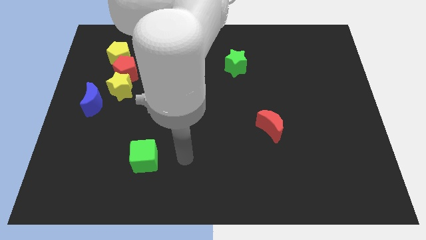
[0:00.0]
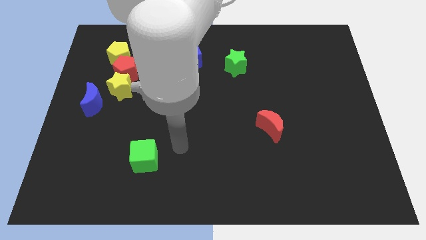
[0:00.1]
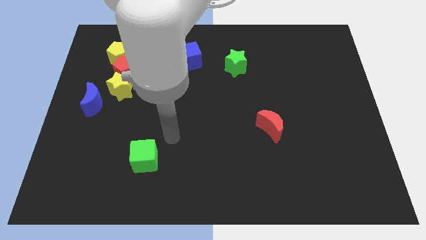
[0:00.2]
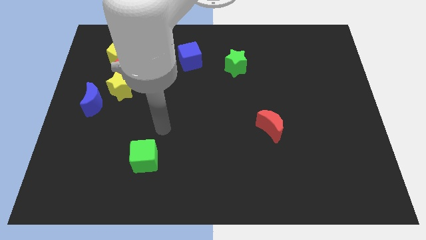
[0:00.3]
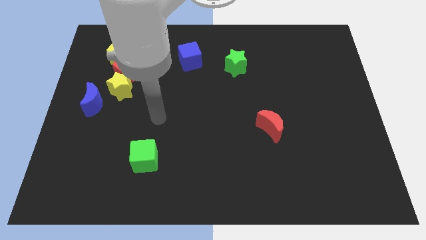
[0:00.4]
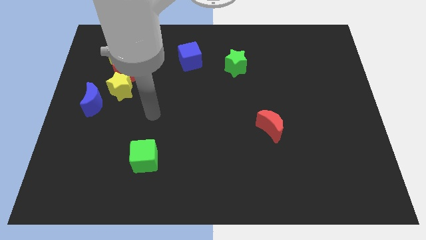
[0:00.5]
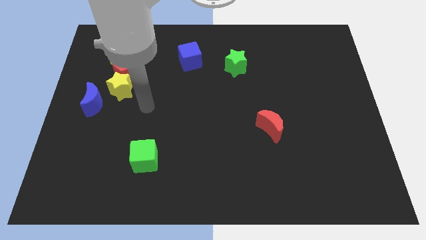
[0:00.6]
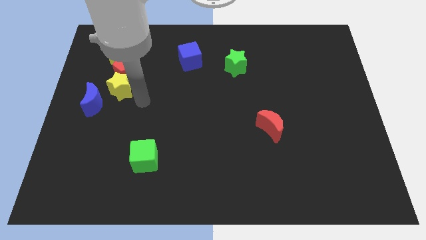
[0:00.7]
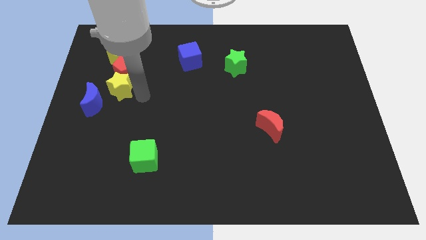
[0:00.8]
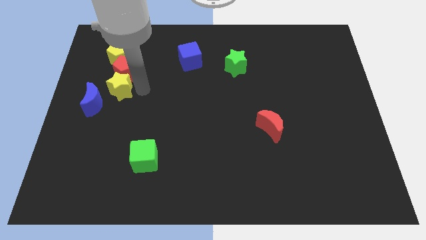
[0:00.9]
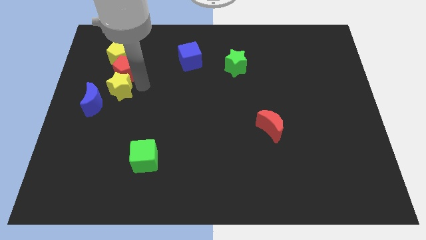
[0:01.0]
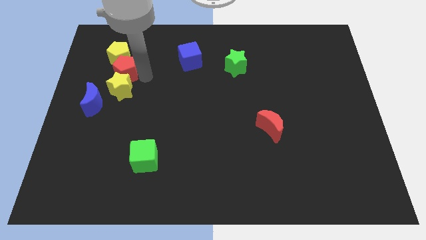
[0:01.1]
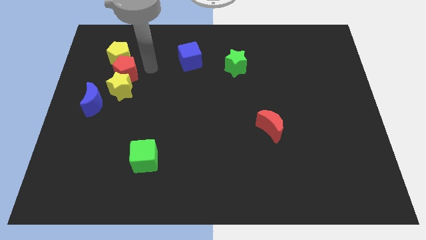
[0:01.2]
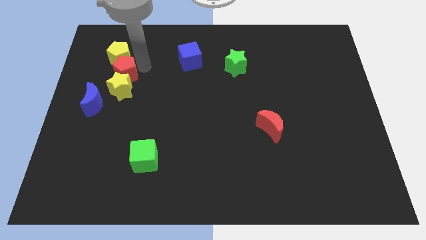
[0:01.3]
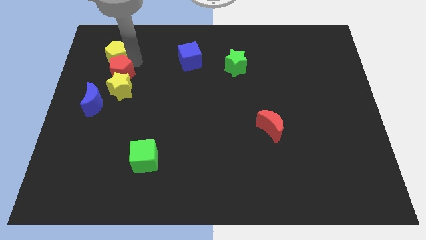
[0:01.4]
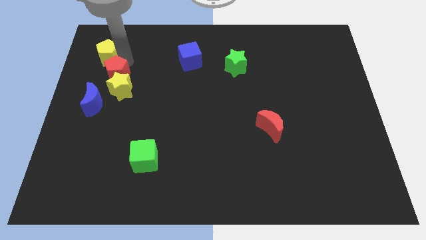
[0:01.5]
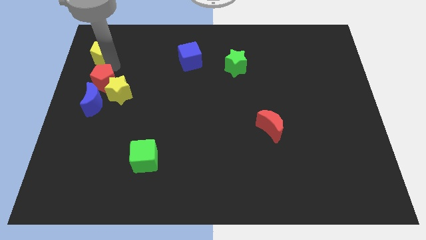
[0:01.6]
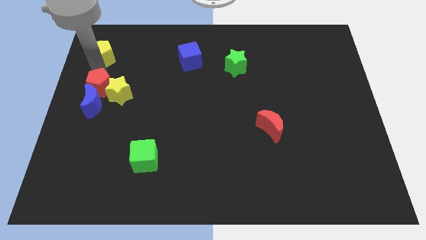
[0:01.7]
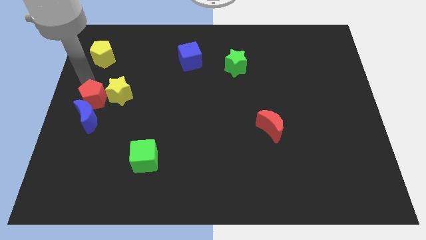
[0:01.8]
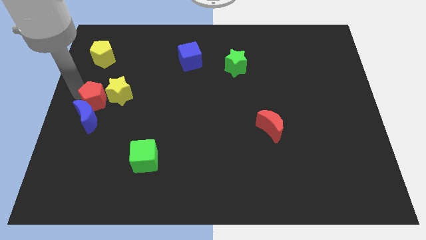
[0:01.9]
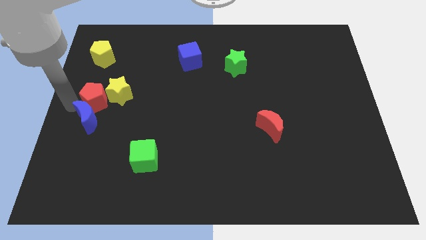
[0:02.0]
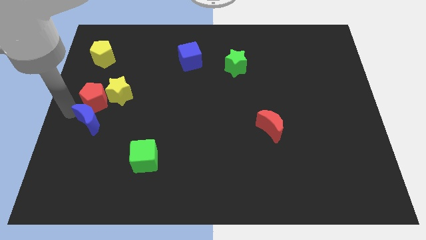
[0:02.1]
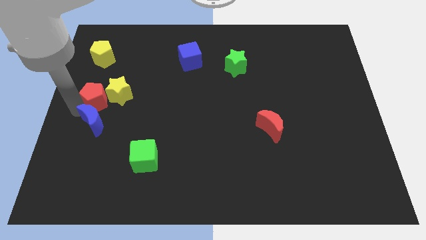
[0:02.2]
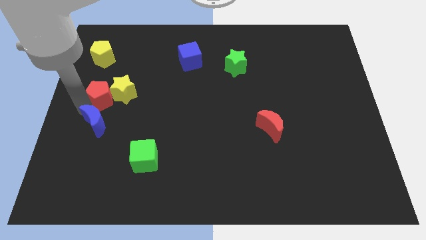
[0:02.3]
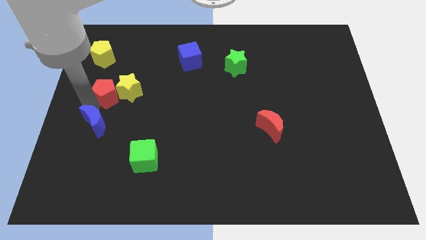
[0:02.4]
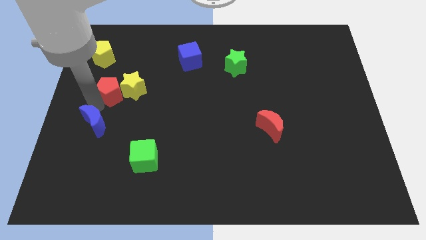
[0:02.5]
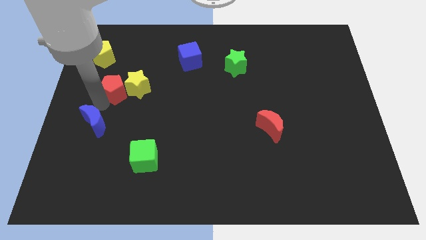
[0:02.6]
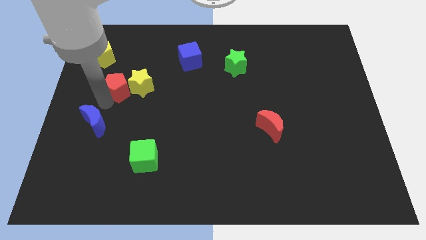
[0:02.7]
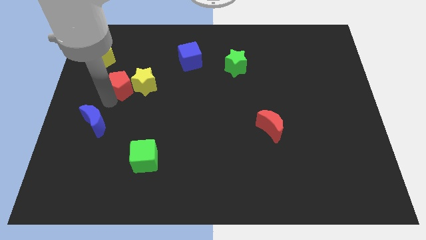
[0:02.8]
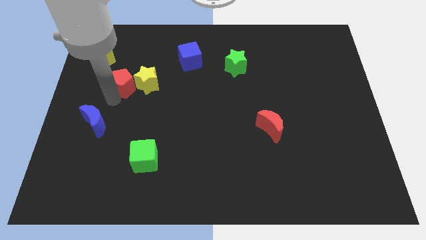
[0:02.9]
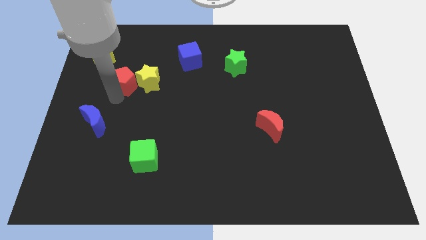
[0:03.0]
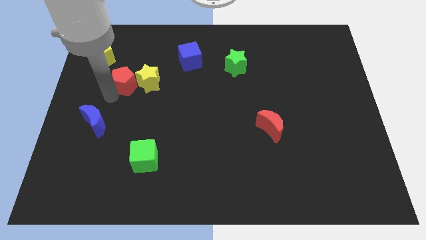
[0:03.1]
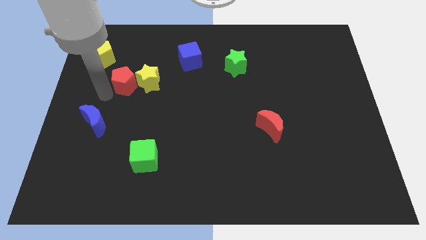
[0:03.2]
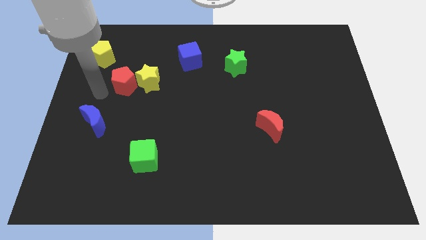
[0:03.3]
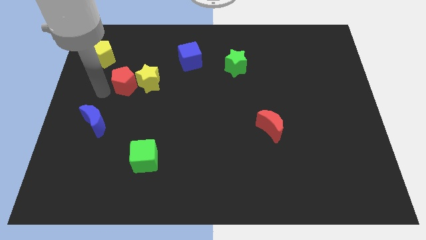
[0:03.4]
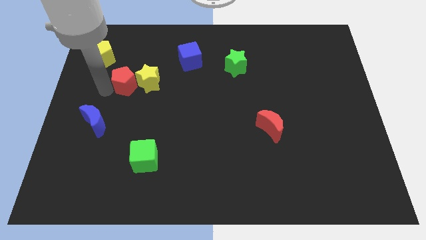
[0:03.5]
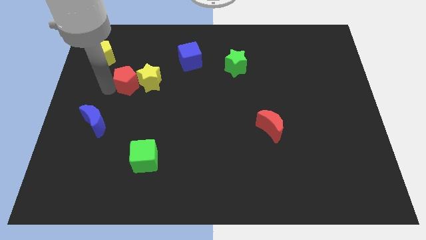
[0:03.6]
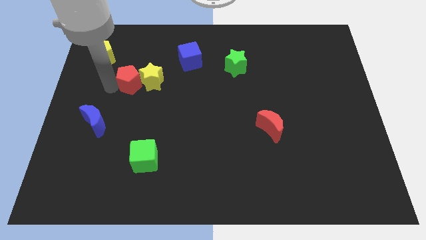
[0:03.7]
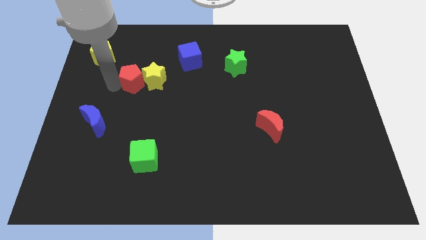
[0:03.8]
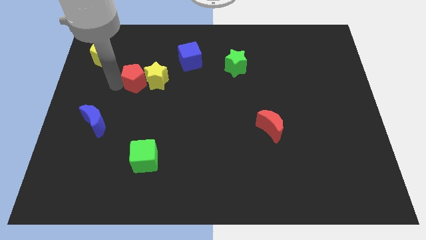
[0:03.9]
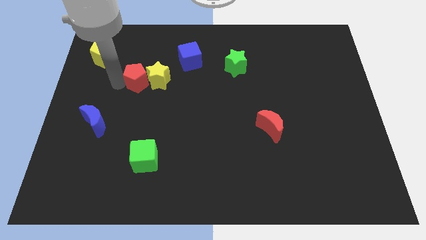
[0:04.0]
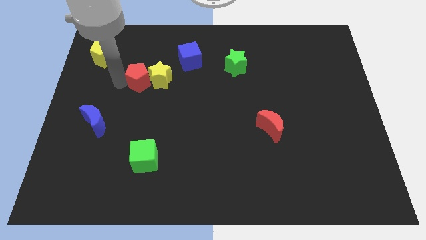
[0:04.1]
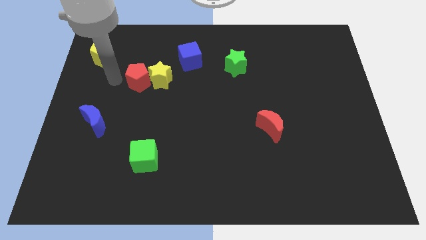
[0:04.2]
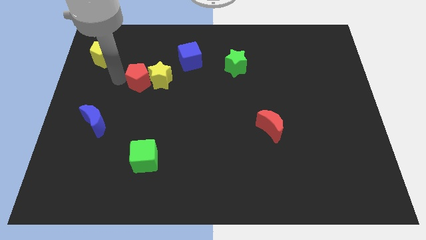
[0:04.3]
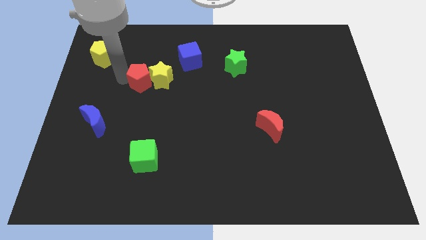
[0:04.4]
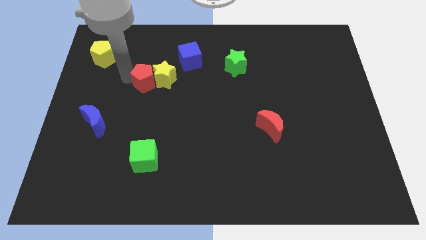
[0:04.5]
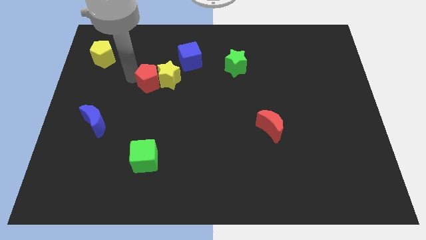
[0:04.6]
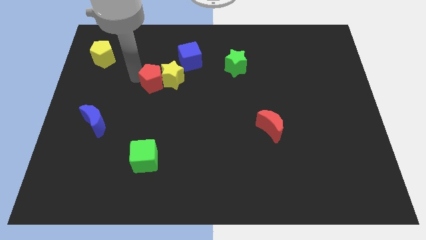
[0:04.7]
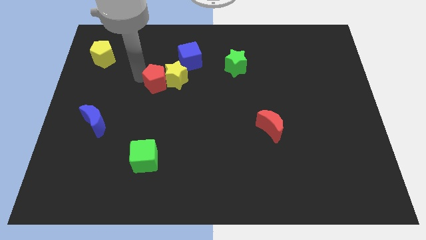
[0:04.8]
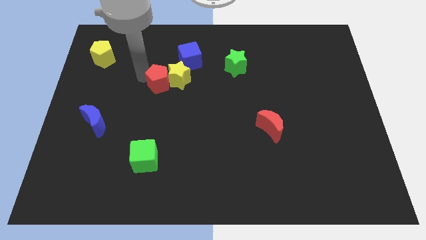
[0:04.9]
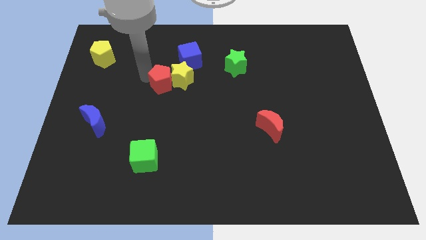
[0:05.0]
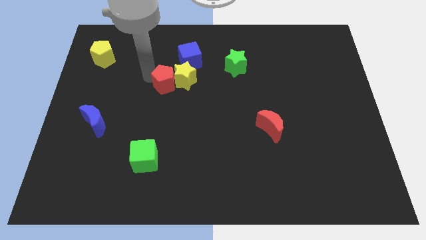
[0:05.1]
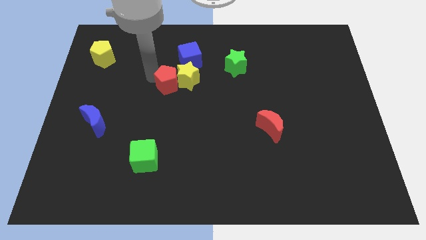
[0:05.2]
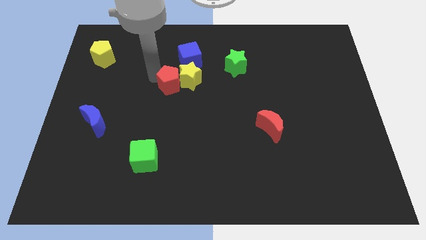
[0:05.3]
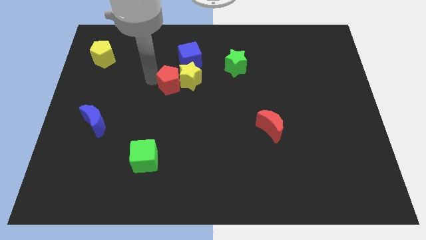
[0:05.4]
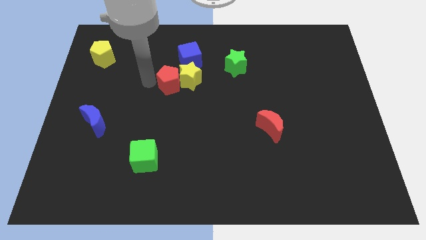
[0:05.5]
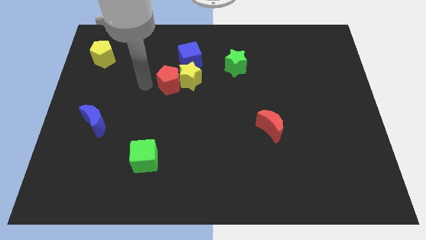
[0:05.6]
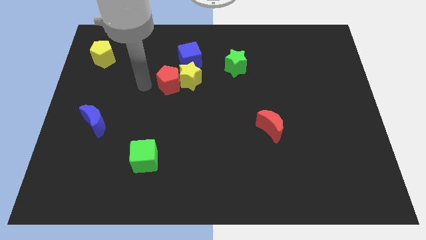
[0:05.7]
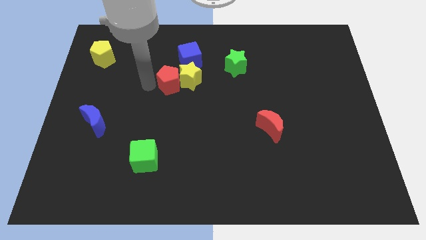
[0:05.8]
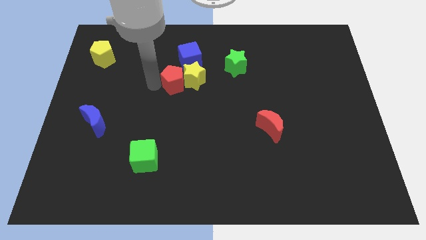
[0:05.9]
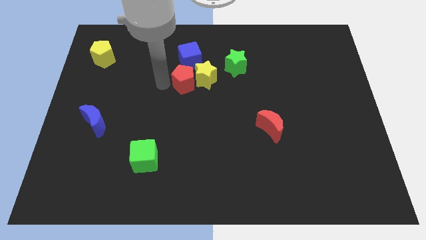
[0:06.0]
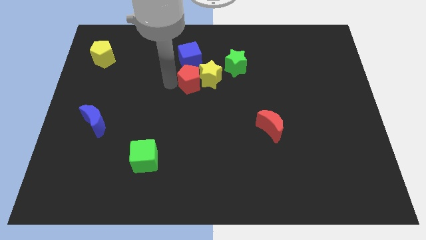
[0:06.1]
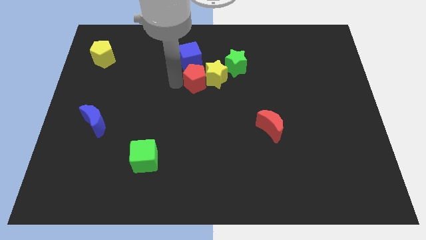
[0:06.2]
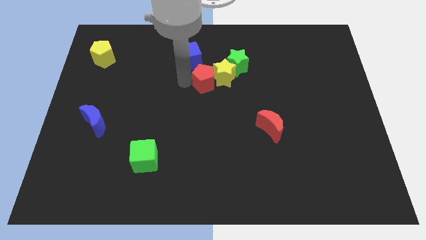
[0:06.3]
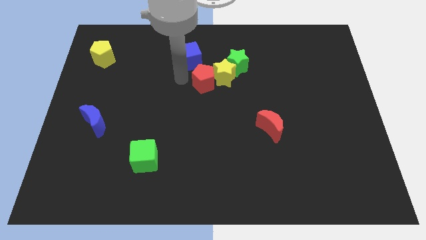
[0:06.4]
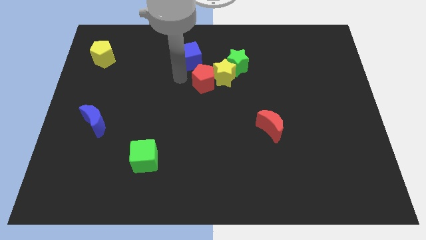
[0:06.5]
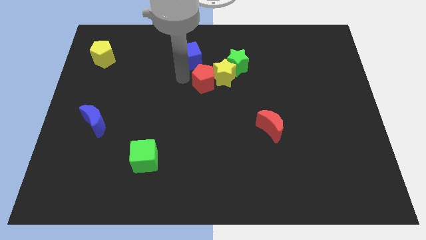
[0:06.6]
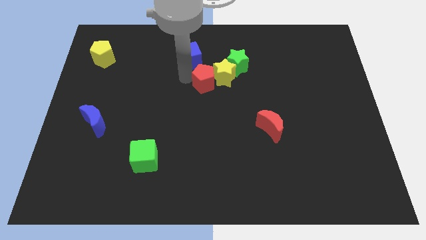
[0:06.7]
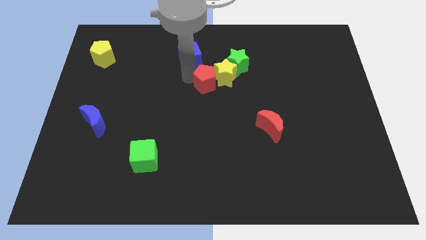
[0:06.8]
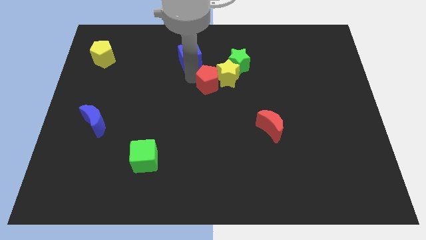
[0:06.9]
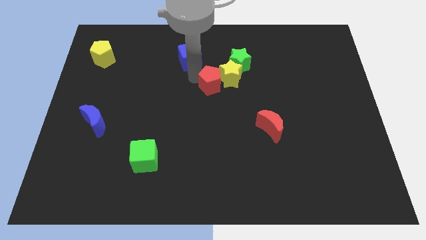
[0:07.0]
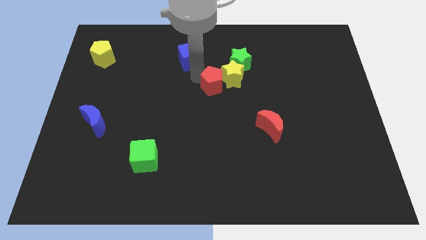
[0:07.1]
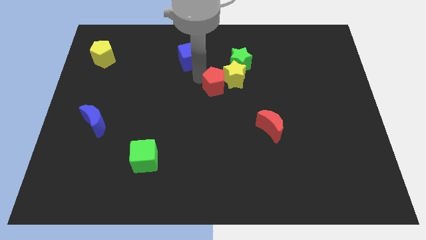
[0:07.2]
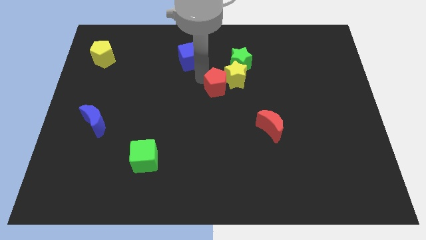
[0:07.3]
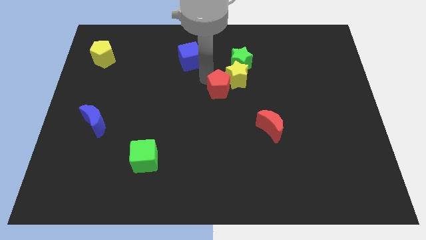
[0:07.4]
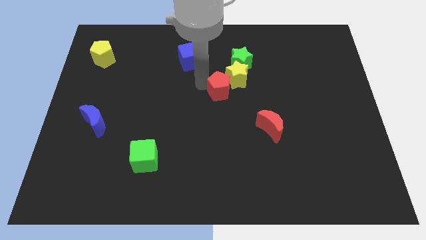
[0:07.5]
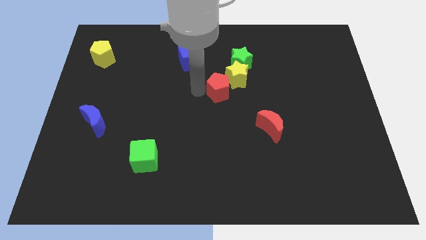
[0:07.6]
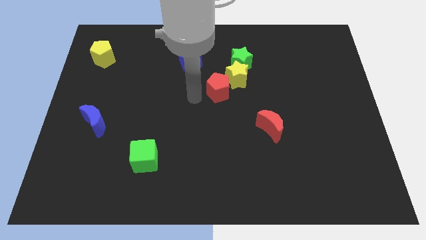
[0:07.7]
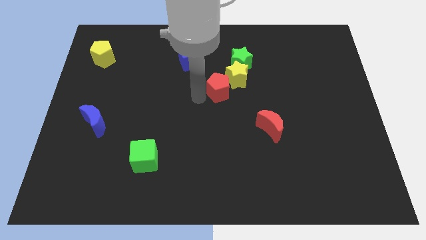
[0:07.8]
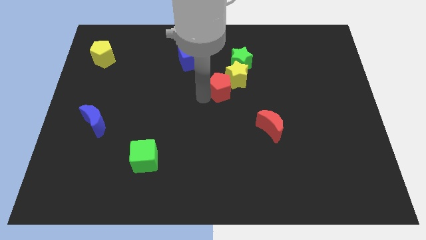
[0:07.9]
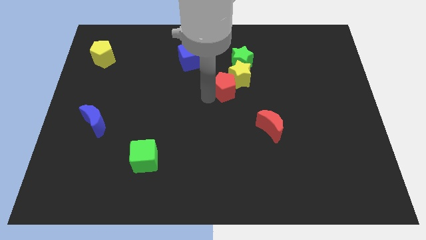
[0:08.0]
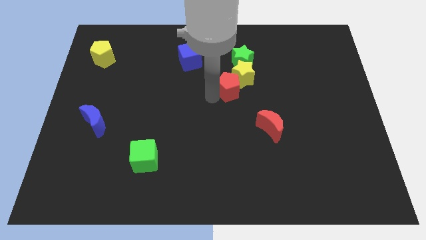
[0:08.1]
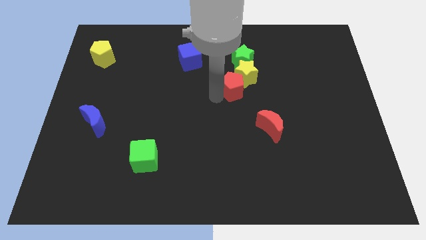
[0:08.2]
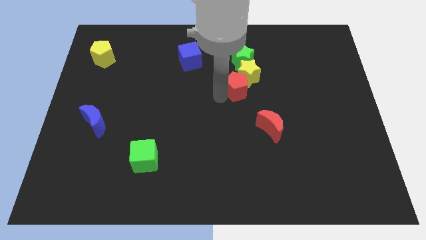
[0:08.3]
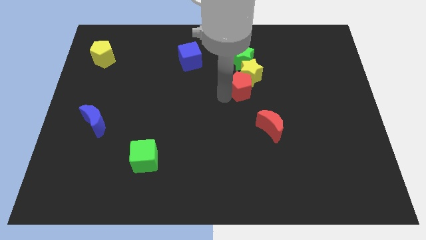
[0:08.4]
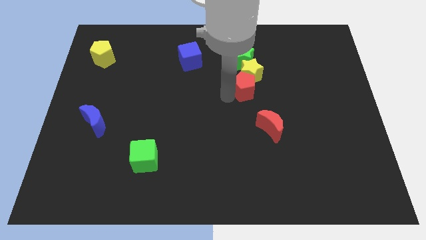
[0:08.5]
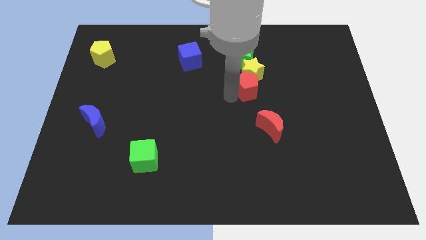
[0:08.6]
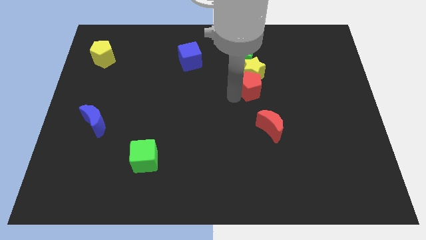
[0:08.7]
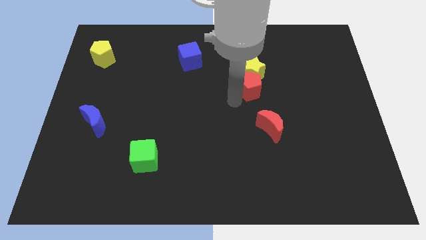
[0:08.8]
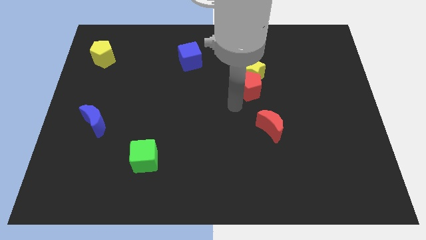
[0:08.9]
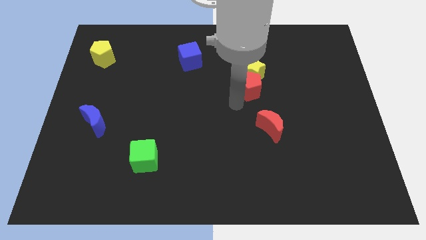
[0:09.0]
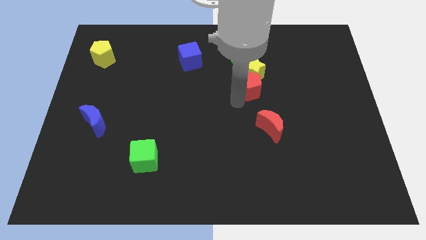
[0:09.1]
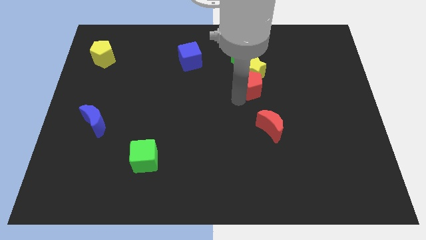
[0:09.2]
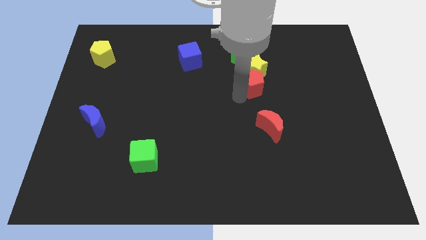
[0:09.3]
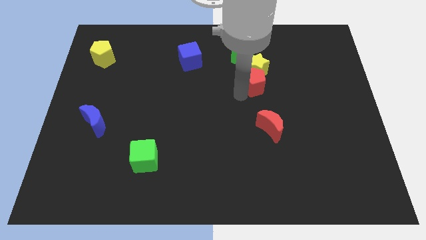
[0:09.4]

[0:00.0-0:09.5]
slide the red pentagon to the bottom right side of the green star
